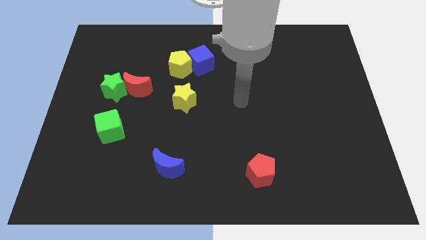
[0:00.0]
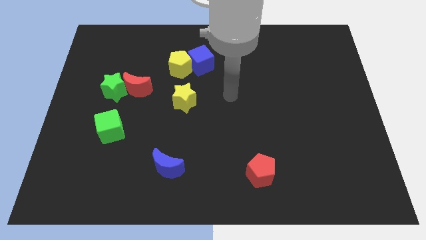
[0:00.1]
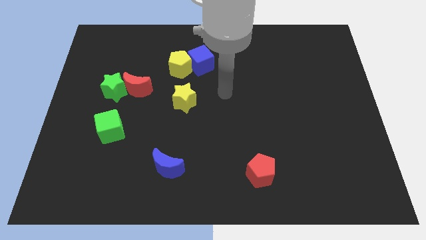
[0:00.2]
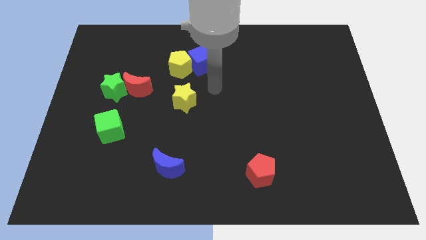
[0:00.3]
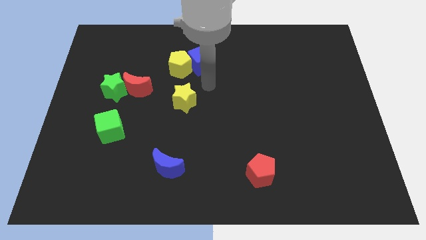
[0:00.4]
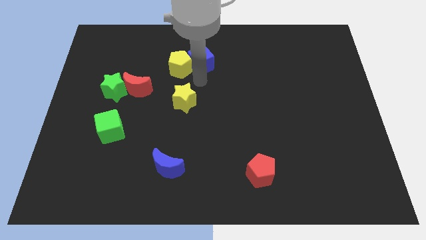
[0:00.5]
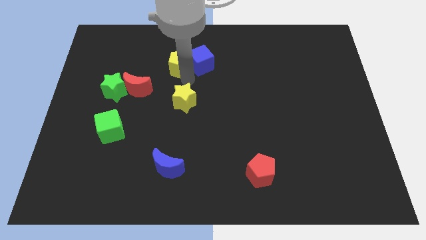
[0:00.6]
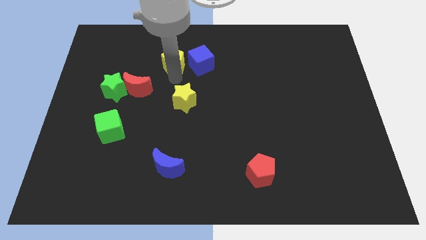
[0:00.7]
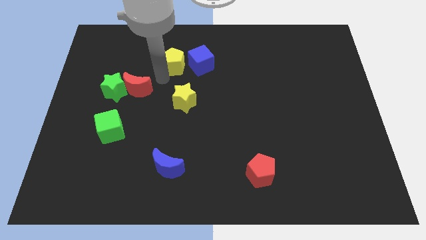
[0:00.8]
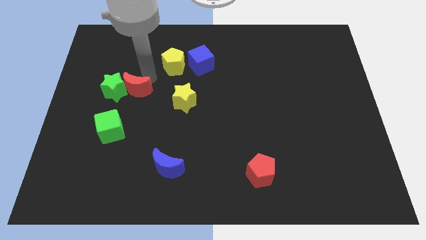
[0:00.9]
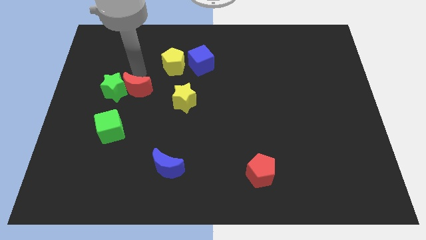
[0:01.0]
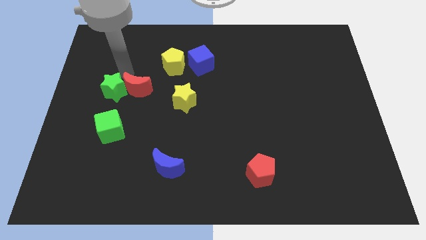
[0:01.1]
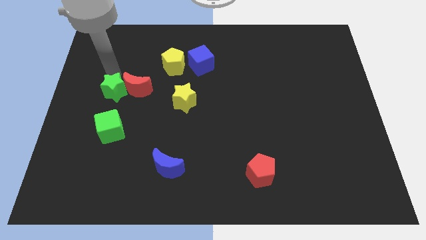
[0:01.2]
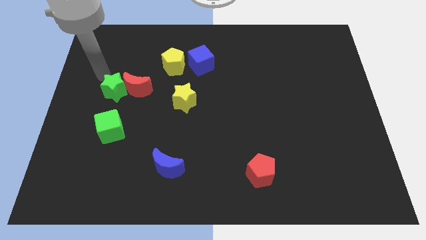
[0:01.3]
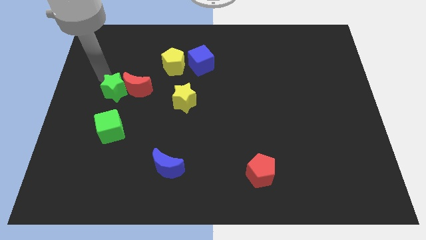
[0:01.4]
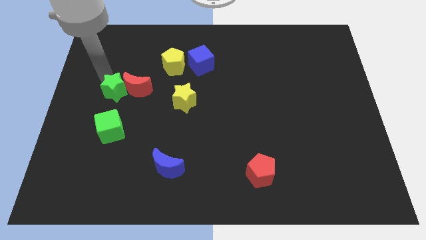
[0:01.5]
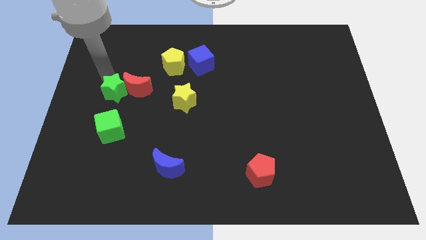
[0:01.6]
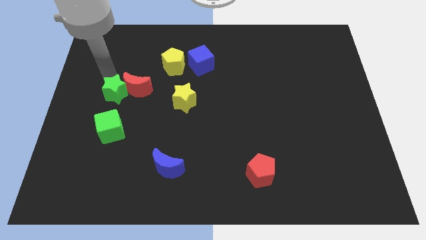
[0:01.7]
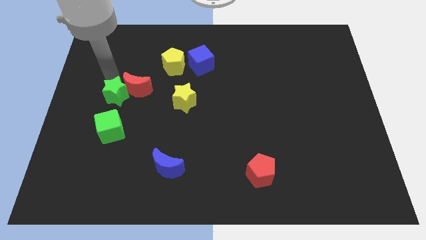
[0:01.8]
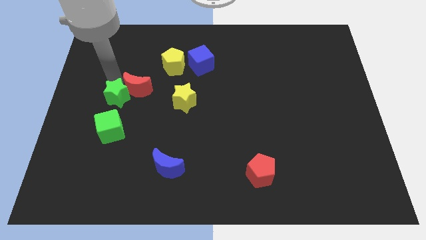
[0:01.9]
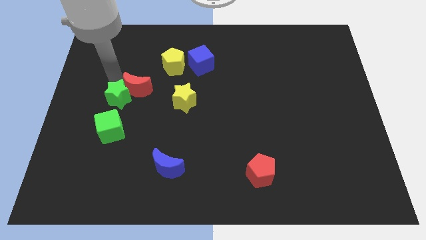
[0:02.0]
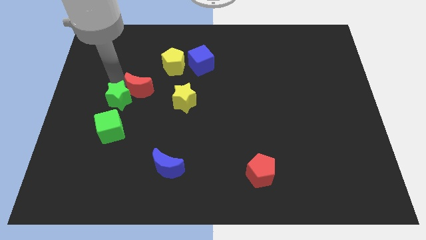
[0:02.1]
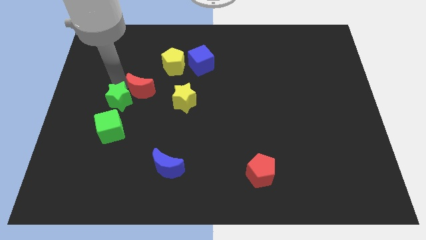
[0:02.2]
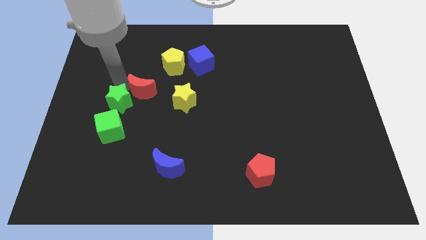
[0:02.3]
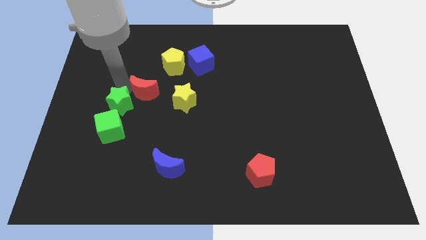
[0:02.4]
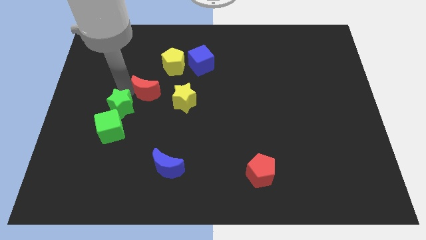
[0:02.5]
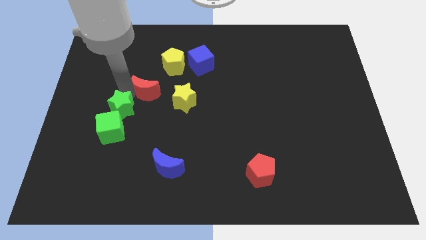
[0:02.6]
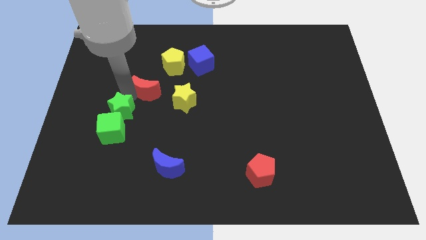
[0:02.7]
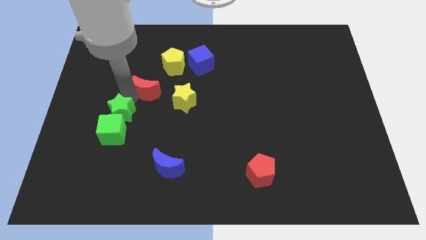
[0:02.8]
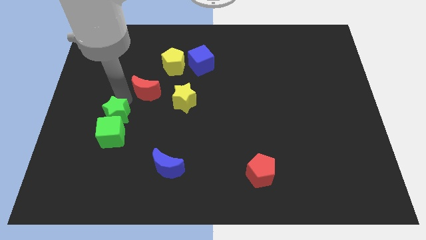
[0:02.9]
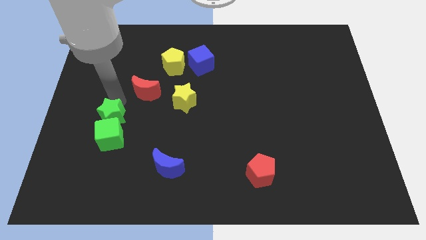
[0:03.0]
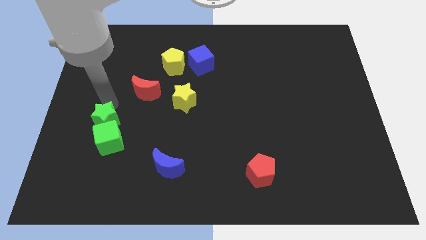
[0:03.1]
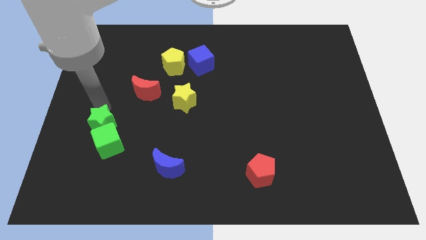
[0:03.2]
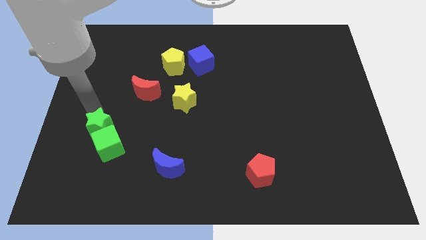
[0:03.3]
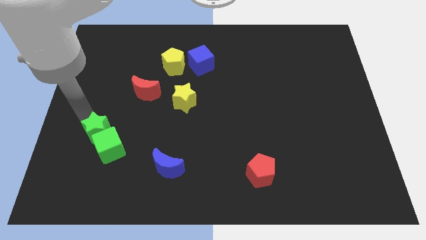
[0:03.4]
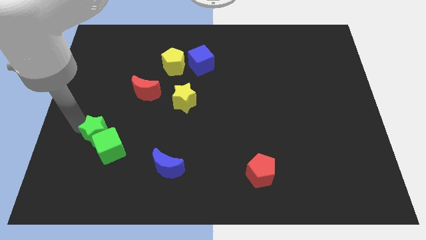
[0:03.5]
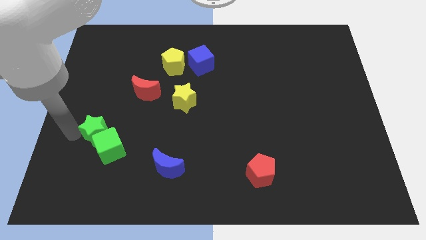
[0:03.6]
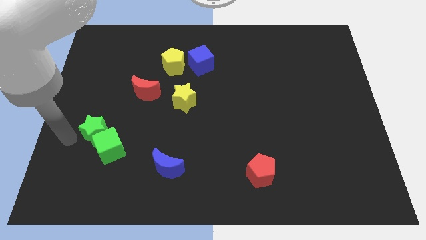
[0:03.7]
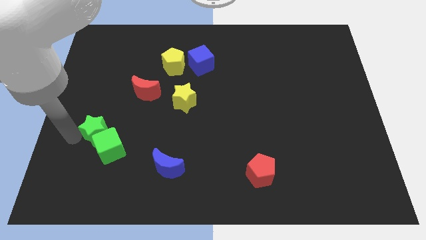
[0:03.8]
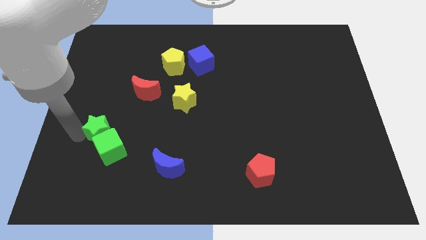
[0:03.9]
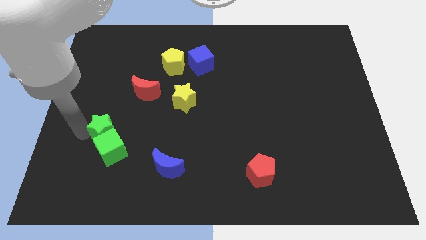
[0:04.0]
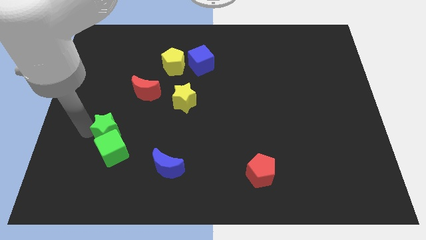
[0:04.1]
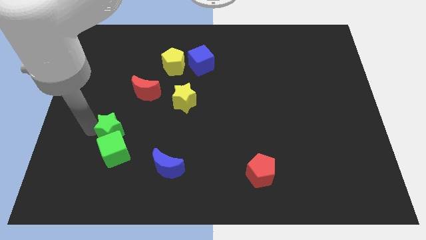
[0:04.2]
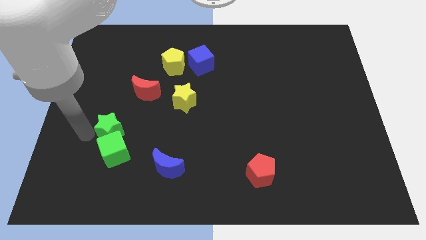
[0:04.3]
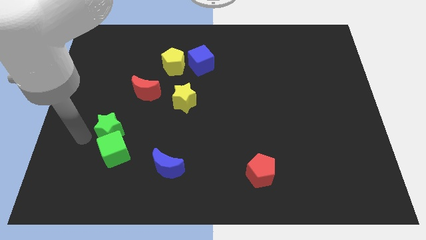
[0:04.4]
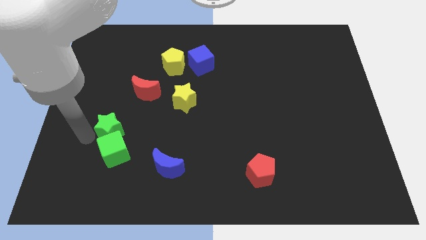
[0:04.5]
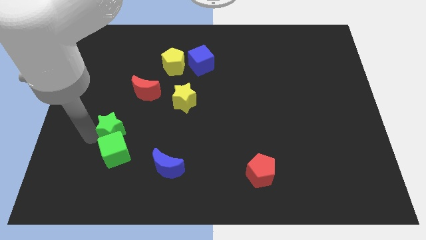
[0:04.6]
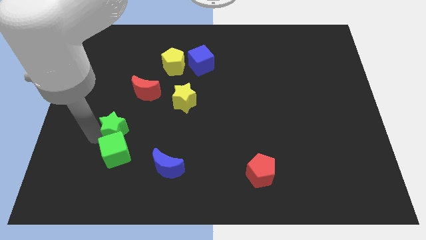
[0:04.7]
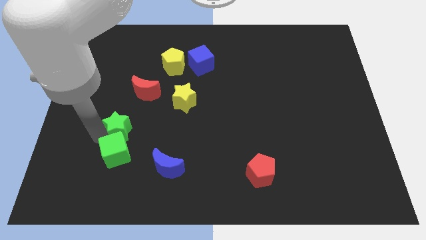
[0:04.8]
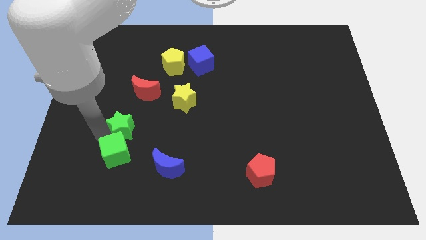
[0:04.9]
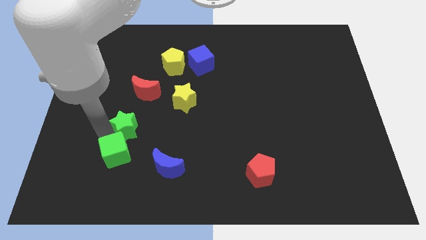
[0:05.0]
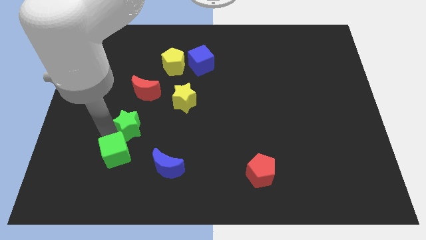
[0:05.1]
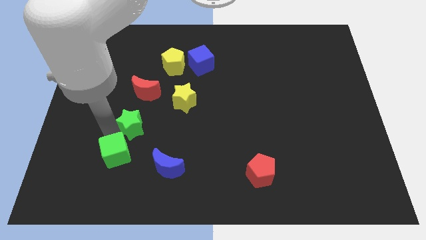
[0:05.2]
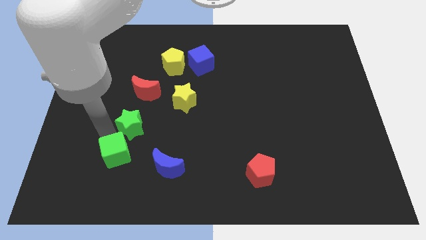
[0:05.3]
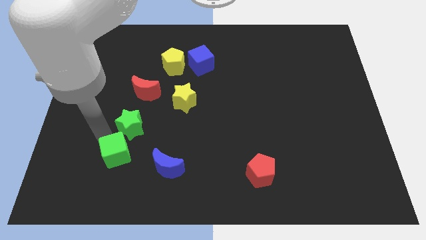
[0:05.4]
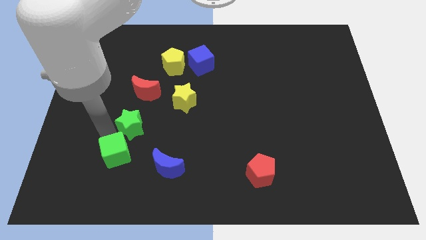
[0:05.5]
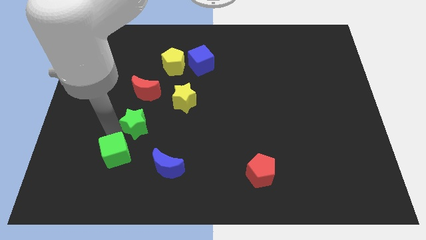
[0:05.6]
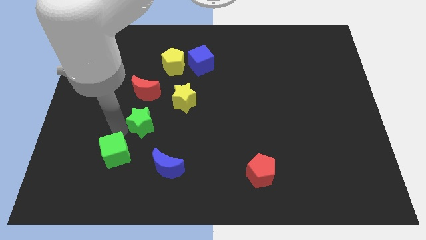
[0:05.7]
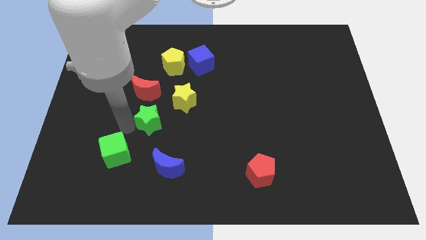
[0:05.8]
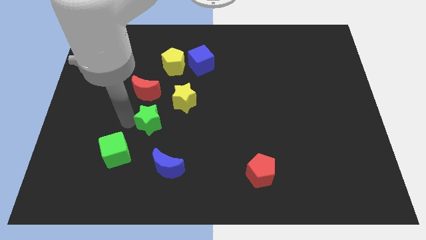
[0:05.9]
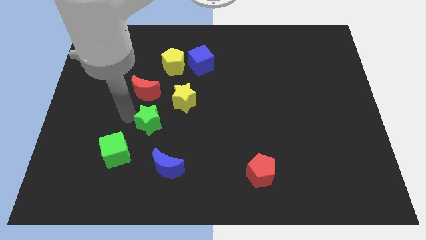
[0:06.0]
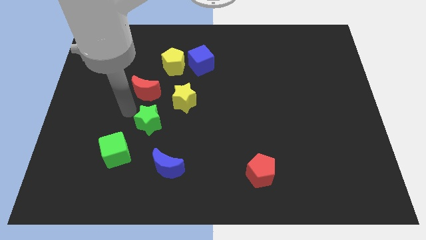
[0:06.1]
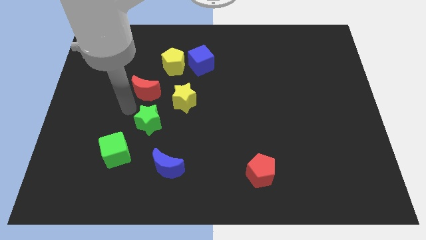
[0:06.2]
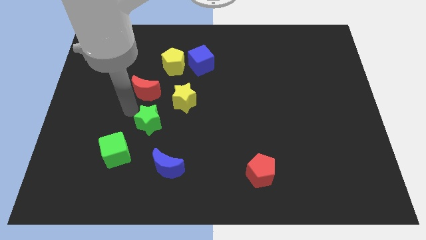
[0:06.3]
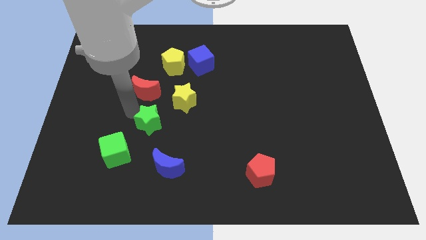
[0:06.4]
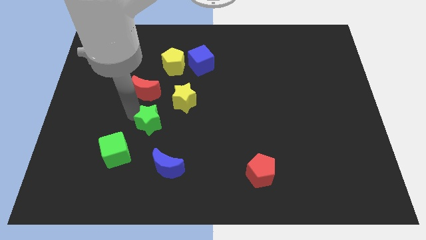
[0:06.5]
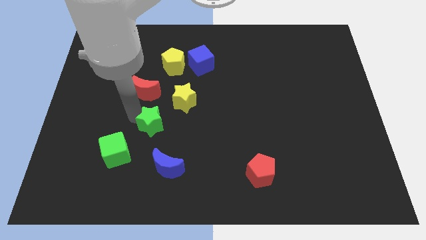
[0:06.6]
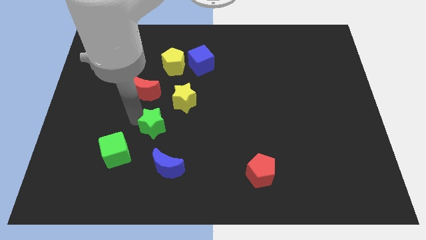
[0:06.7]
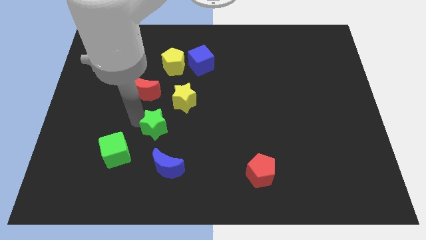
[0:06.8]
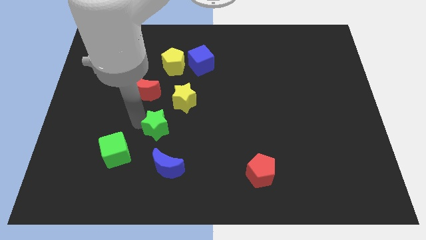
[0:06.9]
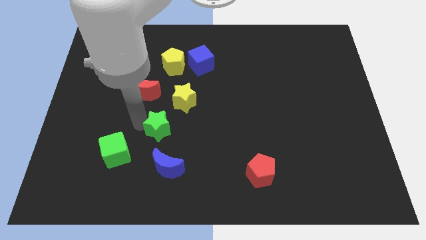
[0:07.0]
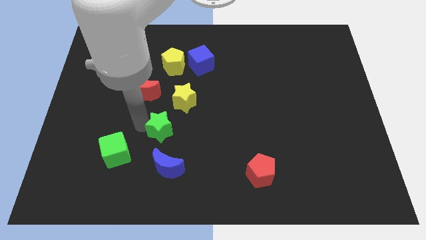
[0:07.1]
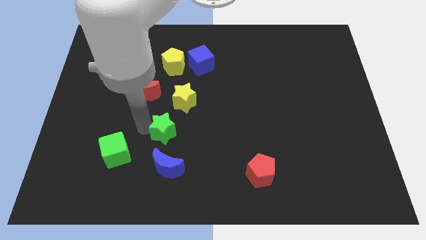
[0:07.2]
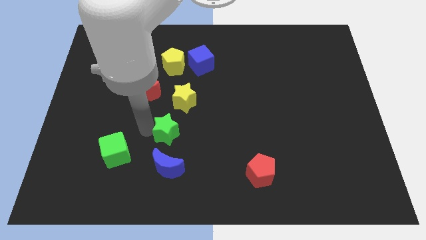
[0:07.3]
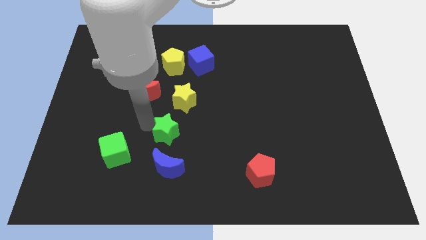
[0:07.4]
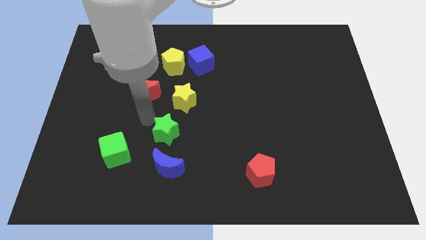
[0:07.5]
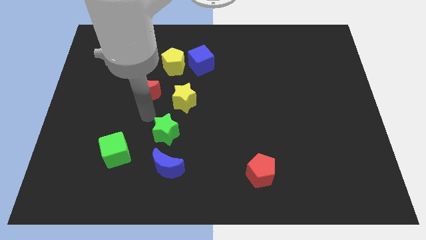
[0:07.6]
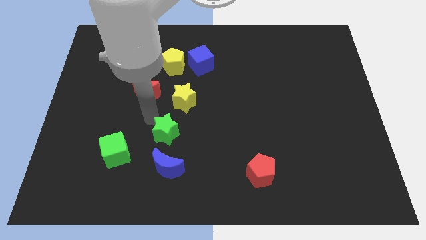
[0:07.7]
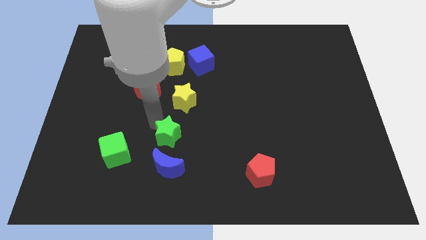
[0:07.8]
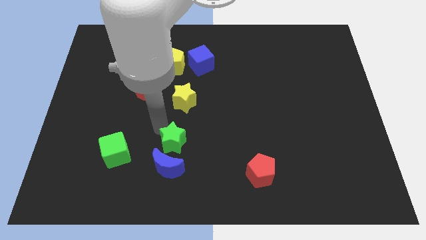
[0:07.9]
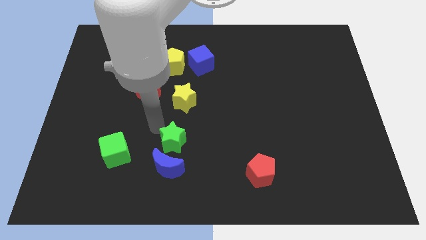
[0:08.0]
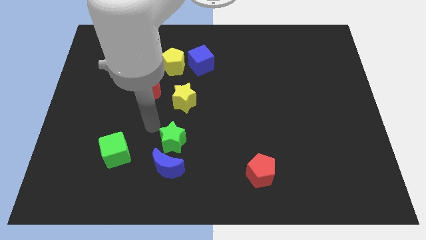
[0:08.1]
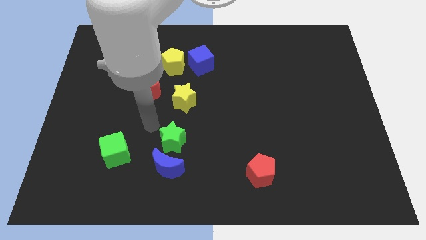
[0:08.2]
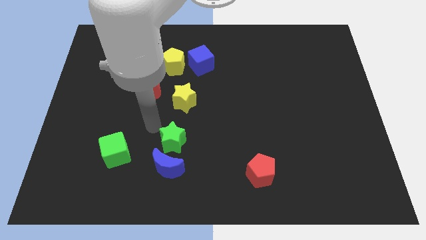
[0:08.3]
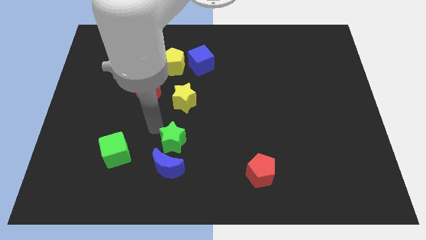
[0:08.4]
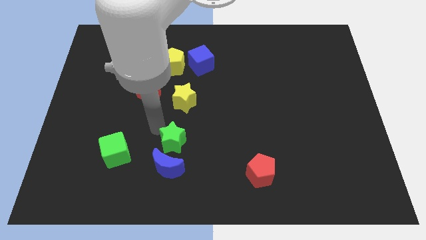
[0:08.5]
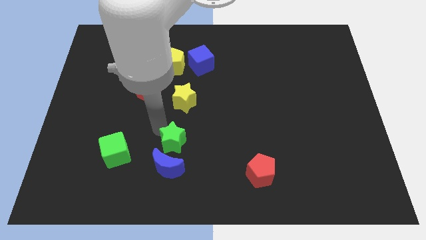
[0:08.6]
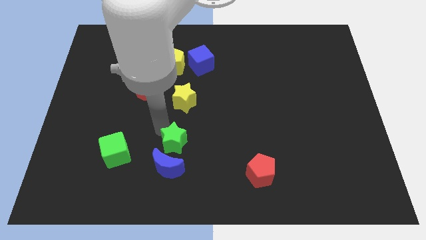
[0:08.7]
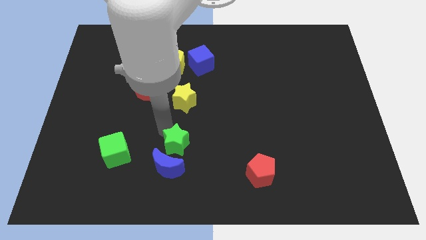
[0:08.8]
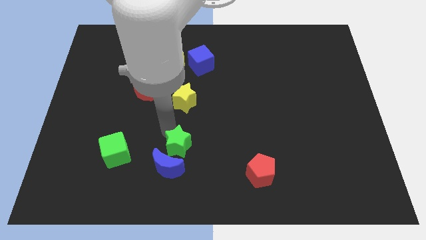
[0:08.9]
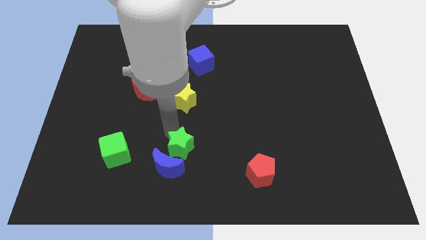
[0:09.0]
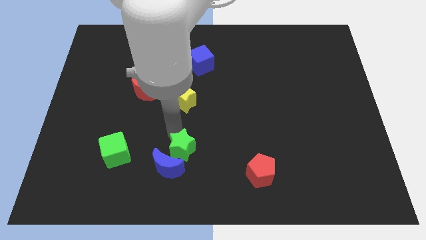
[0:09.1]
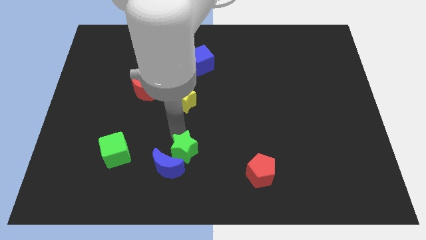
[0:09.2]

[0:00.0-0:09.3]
push the green star to the right side of the blue moon
